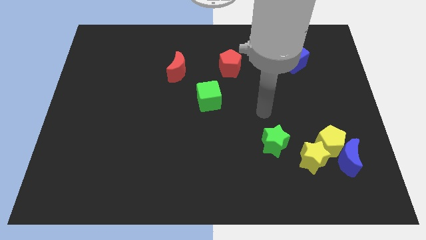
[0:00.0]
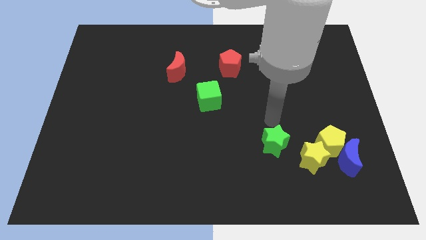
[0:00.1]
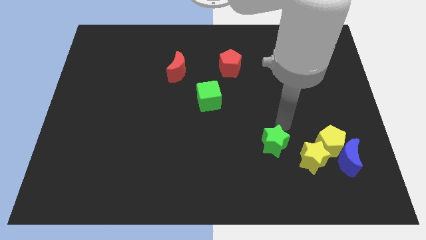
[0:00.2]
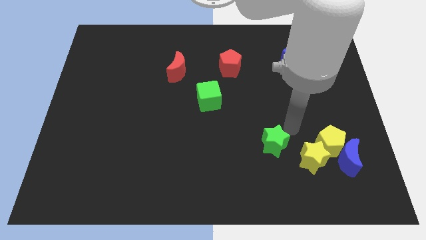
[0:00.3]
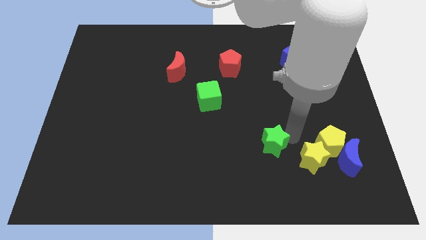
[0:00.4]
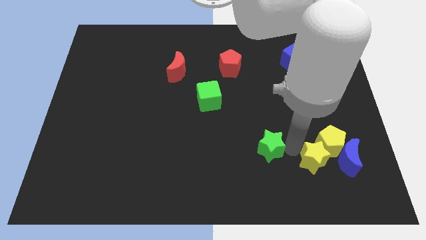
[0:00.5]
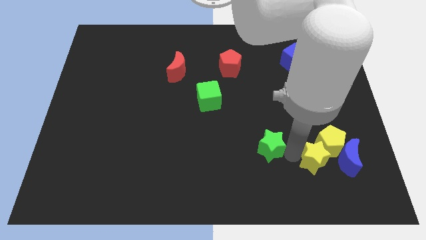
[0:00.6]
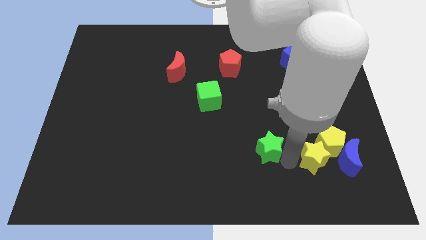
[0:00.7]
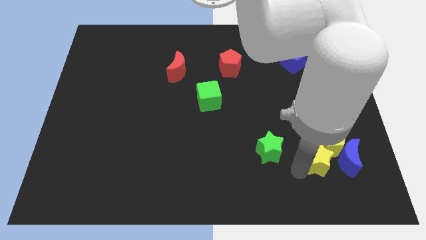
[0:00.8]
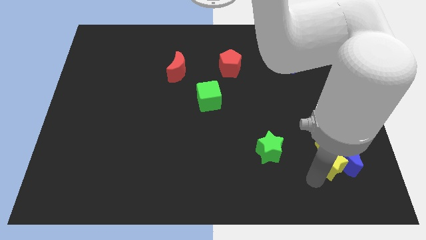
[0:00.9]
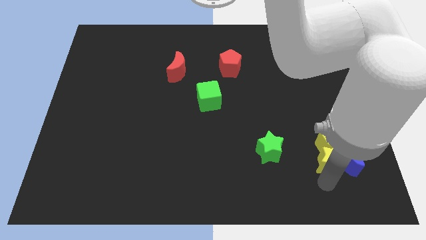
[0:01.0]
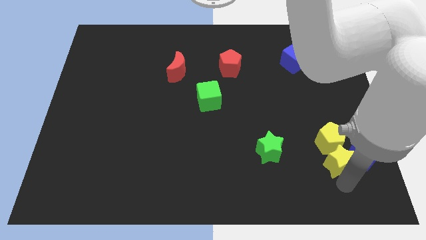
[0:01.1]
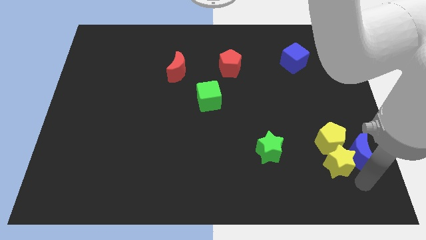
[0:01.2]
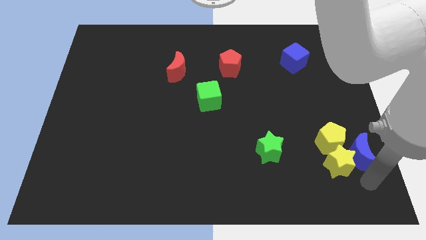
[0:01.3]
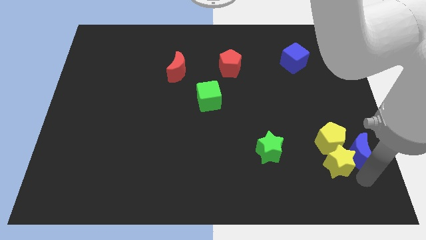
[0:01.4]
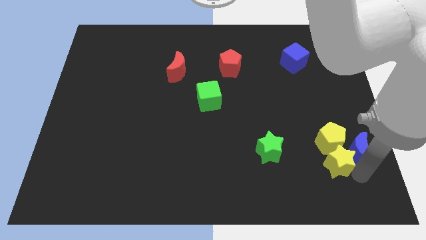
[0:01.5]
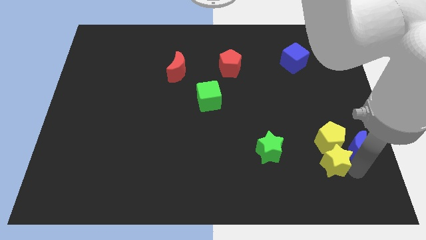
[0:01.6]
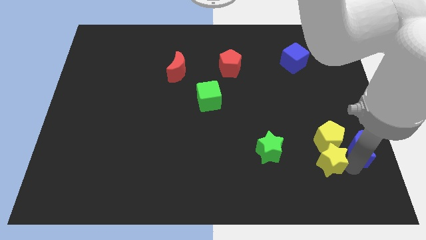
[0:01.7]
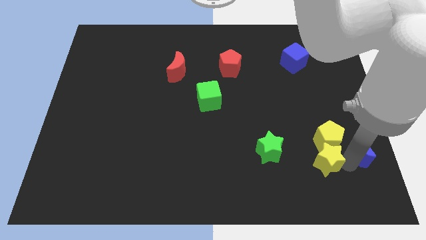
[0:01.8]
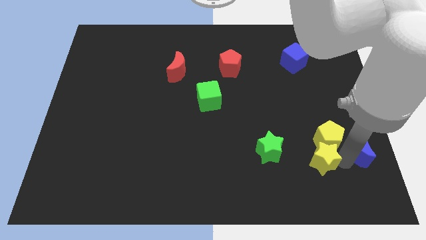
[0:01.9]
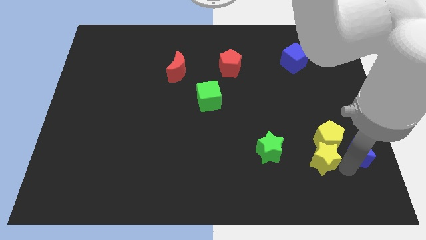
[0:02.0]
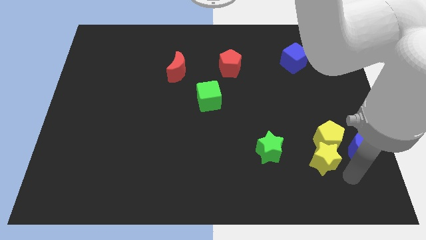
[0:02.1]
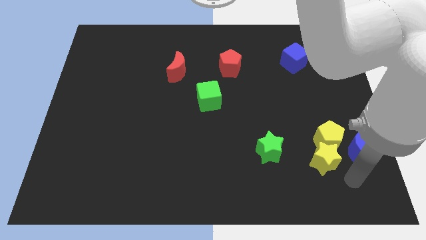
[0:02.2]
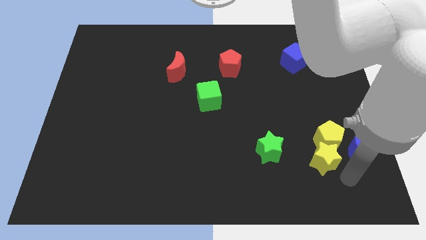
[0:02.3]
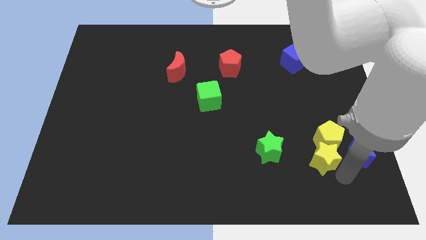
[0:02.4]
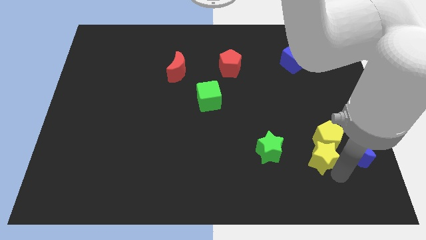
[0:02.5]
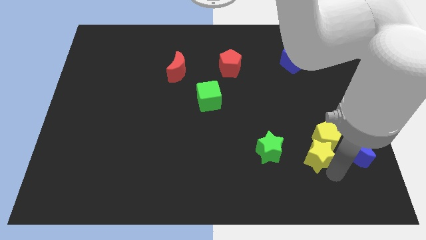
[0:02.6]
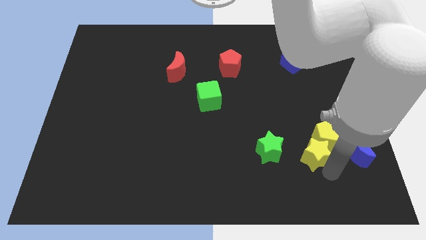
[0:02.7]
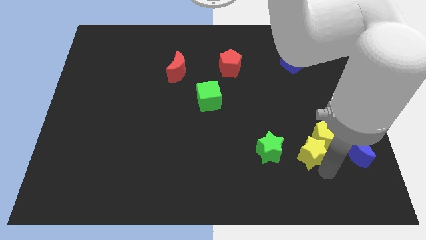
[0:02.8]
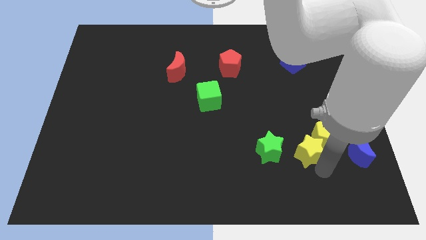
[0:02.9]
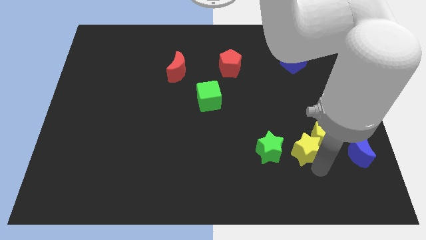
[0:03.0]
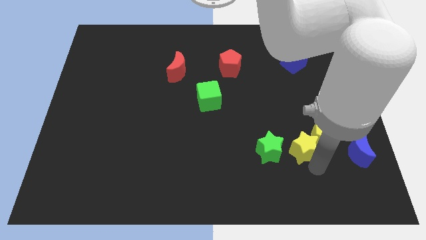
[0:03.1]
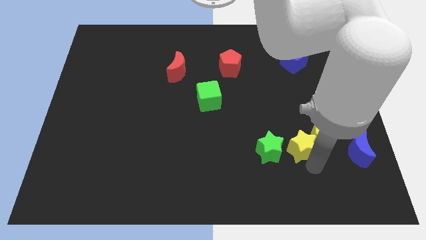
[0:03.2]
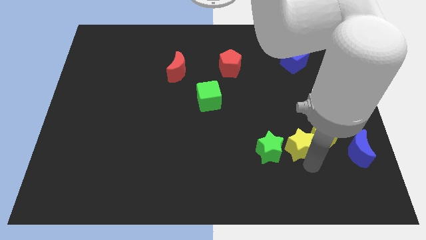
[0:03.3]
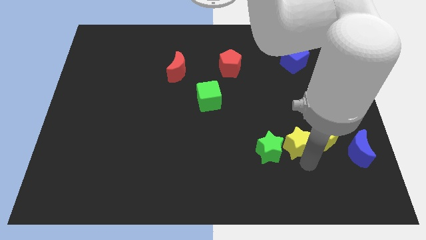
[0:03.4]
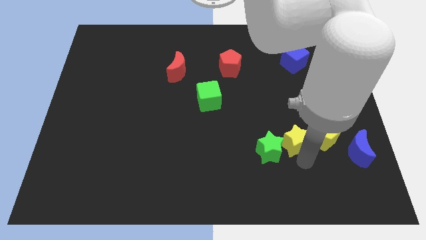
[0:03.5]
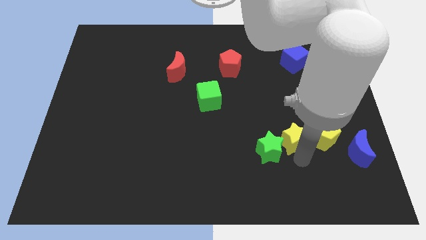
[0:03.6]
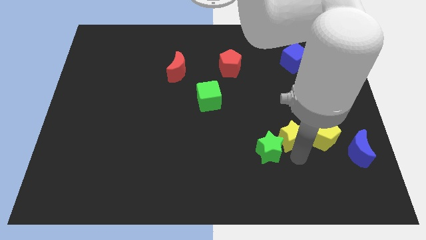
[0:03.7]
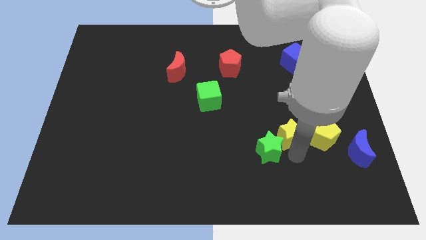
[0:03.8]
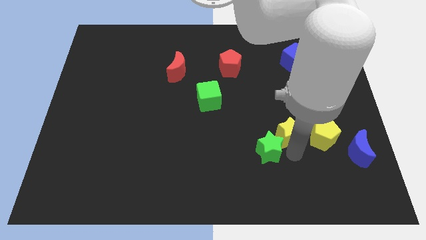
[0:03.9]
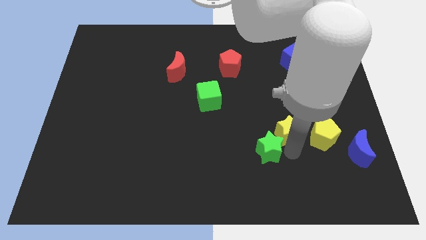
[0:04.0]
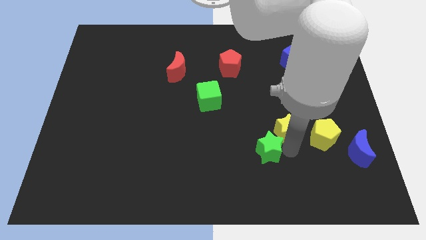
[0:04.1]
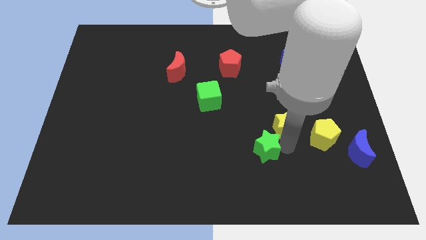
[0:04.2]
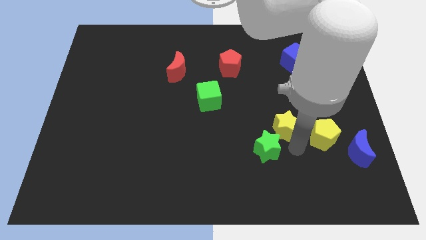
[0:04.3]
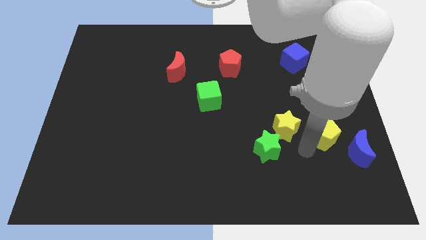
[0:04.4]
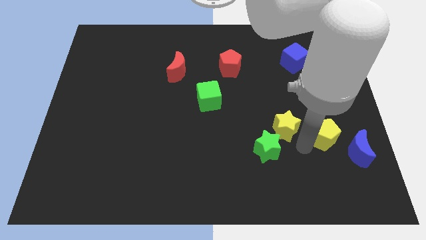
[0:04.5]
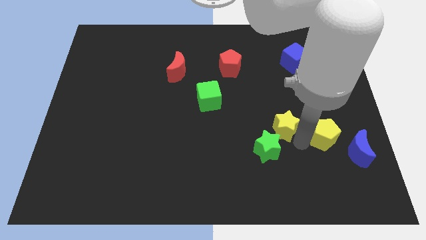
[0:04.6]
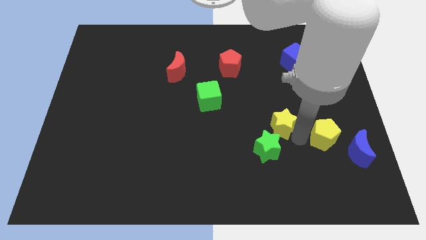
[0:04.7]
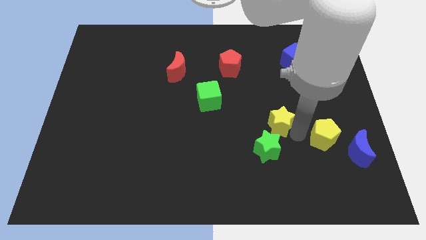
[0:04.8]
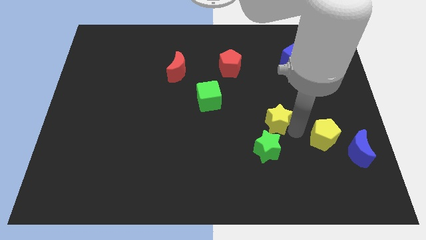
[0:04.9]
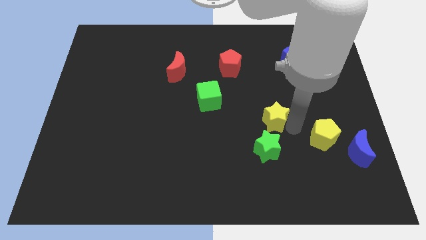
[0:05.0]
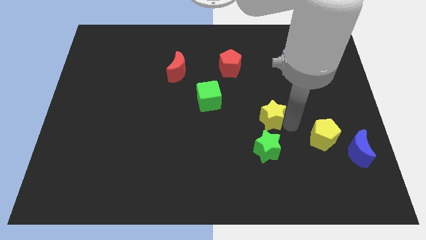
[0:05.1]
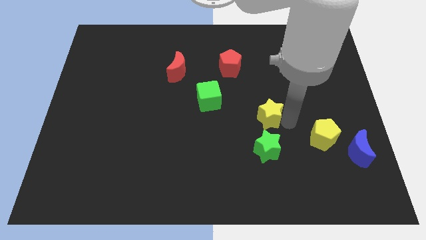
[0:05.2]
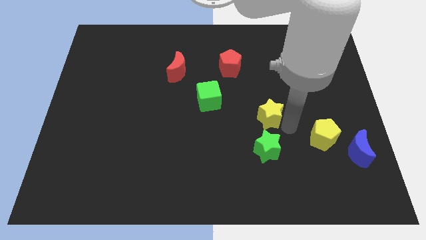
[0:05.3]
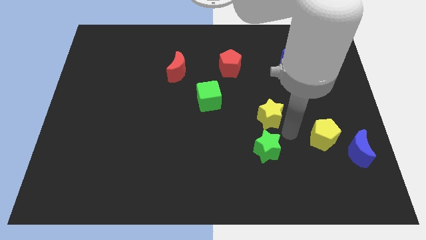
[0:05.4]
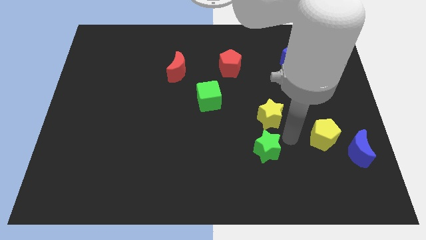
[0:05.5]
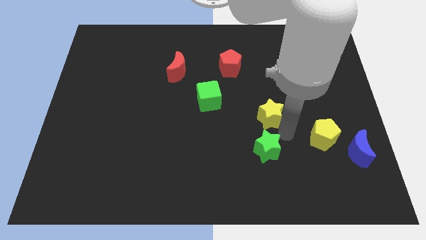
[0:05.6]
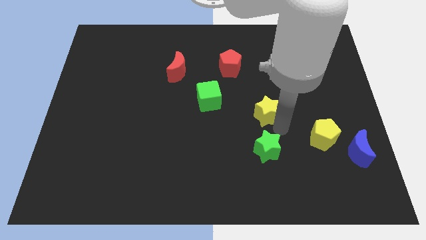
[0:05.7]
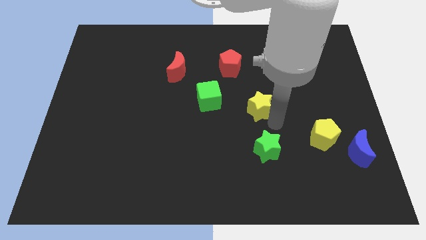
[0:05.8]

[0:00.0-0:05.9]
push the yellow star right of the green cube

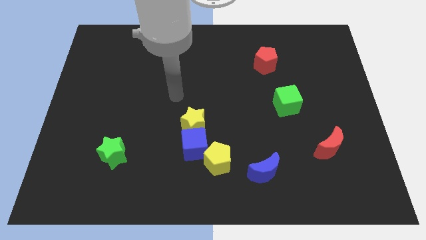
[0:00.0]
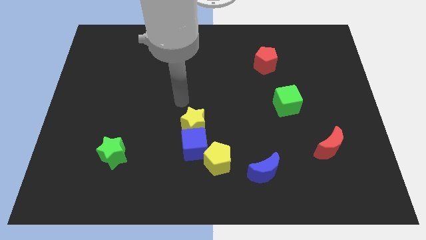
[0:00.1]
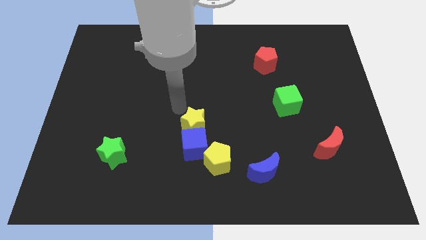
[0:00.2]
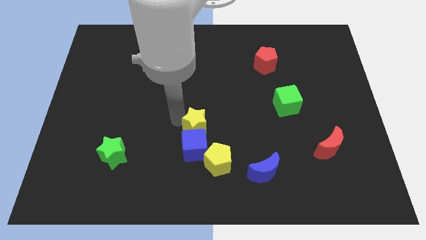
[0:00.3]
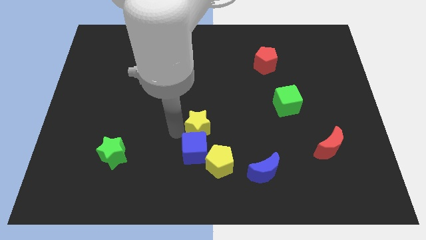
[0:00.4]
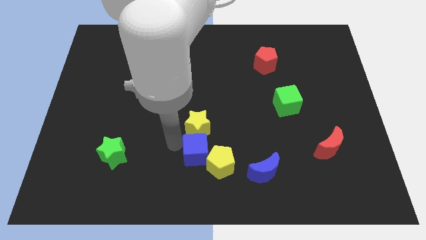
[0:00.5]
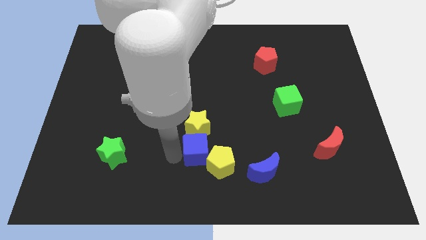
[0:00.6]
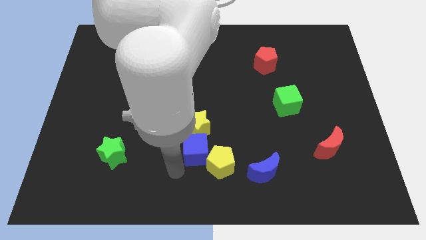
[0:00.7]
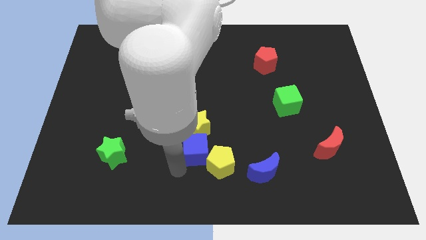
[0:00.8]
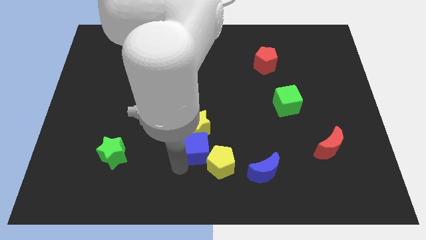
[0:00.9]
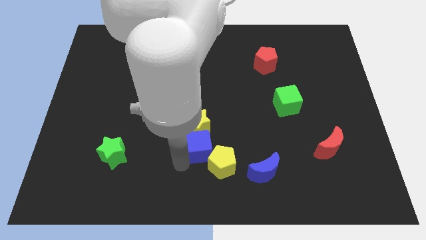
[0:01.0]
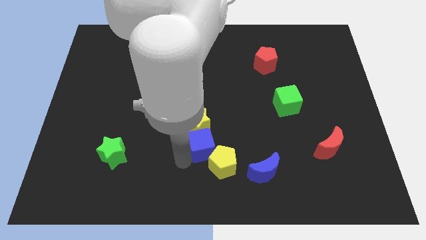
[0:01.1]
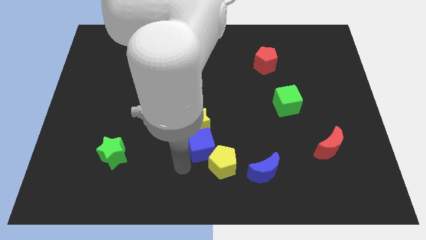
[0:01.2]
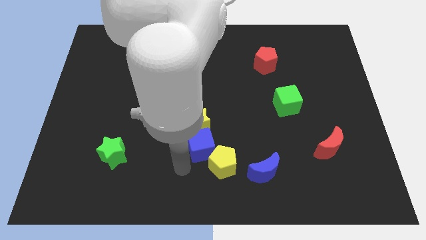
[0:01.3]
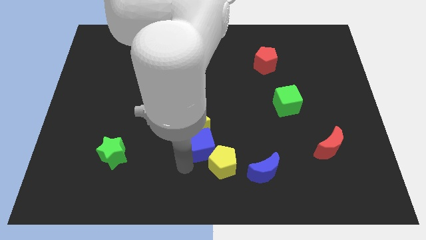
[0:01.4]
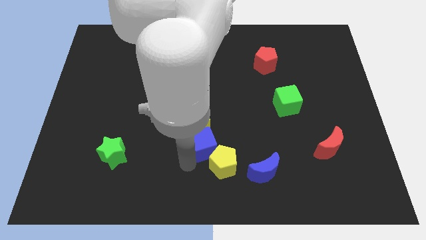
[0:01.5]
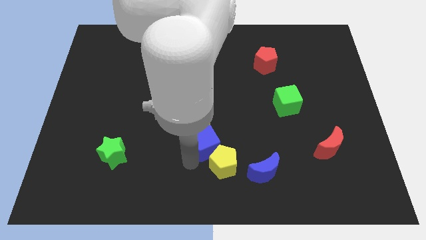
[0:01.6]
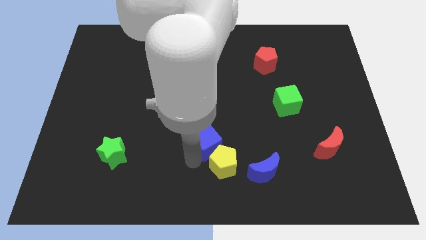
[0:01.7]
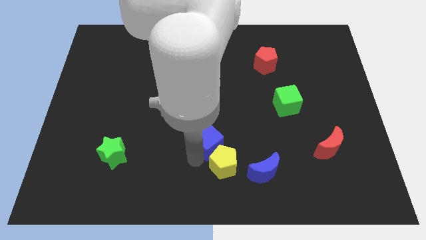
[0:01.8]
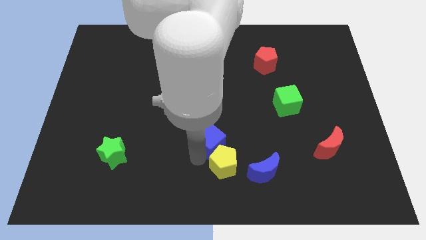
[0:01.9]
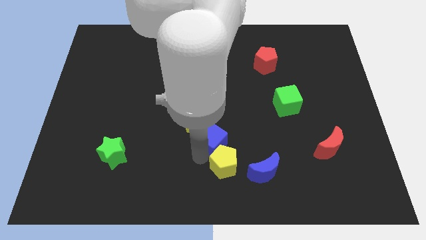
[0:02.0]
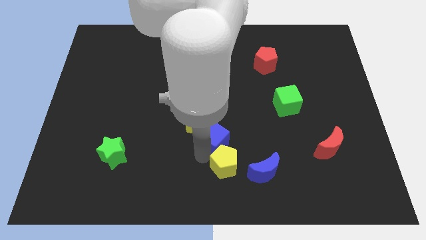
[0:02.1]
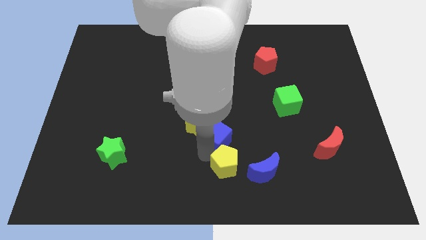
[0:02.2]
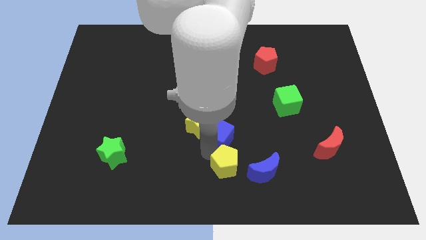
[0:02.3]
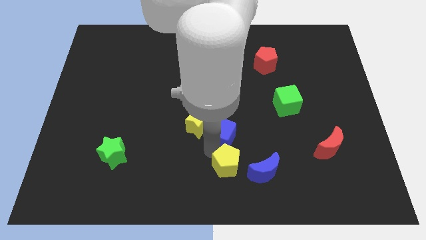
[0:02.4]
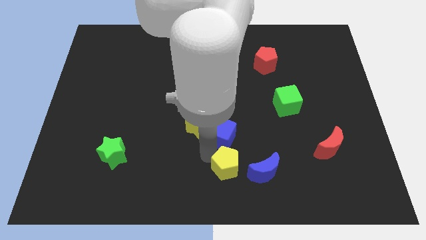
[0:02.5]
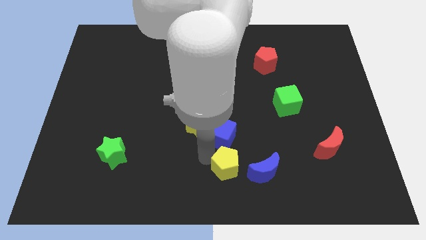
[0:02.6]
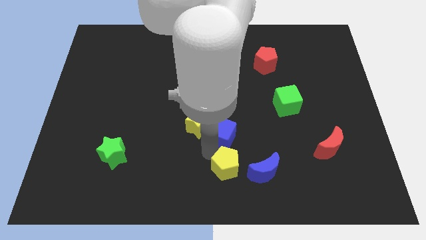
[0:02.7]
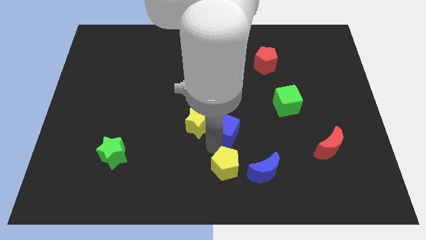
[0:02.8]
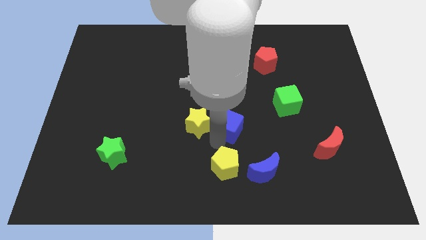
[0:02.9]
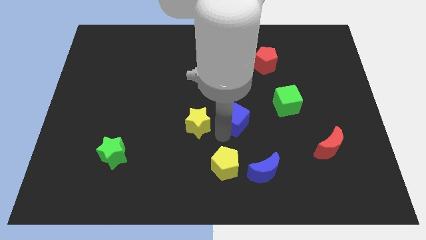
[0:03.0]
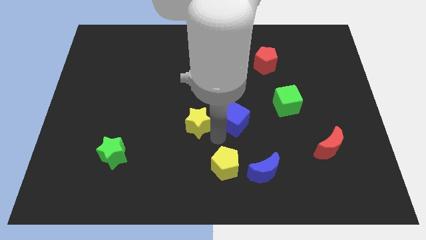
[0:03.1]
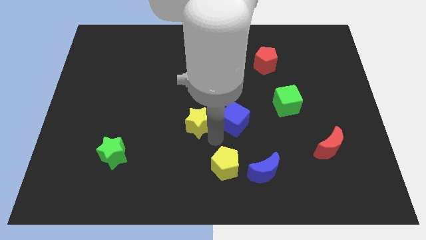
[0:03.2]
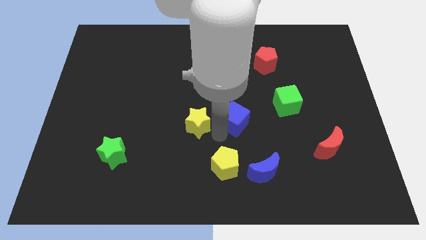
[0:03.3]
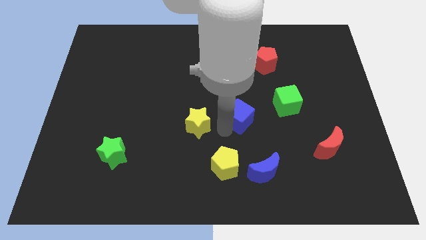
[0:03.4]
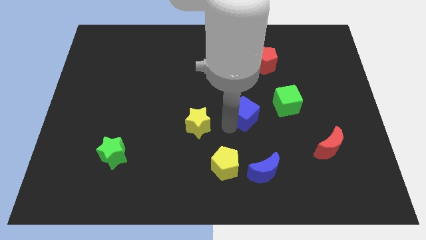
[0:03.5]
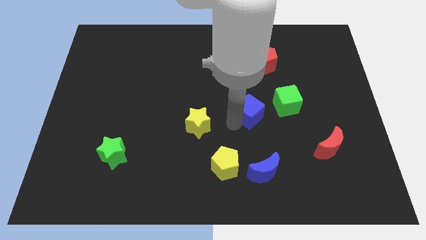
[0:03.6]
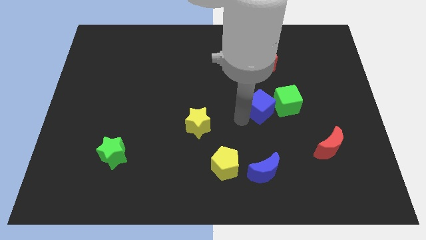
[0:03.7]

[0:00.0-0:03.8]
push the blue cube to the bottom of the red pentagon
